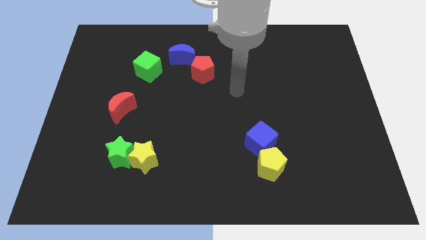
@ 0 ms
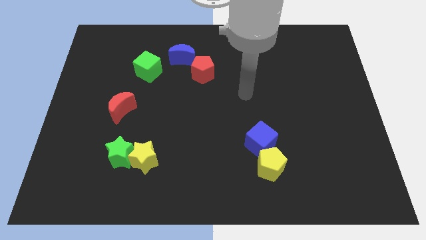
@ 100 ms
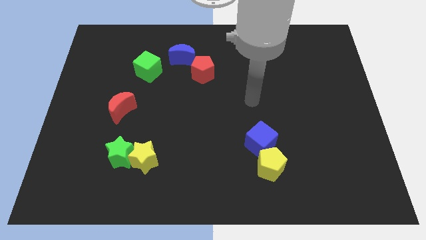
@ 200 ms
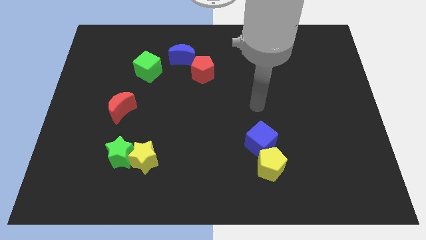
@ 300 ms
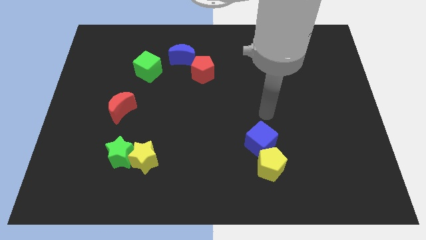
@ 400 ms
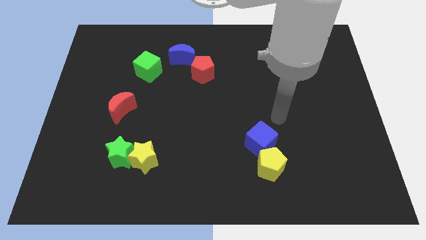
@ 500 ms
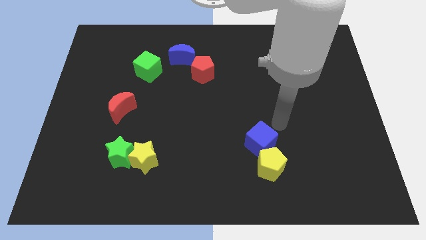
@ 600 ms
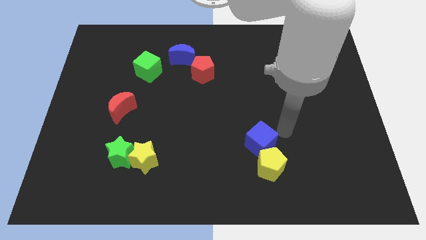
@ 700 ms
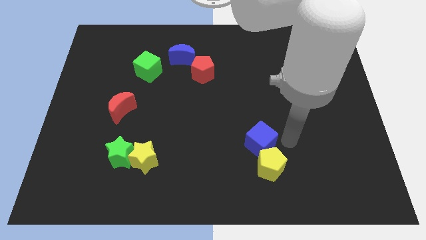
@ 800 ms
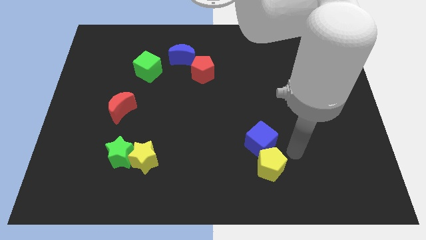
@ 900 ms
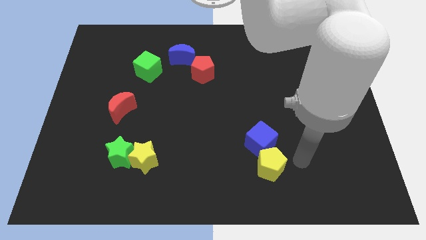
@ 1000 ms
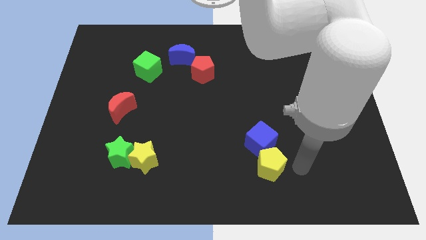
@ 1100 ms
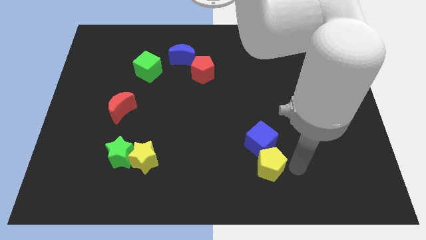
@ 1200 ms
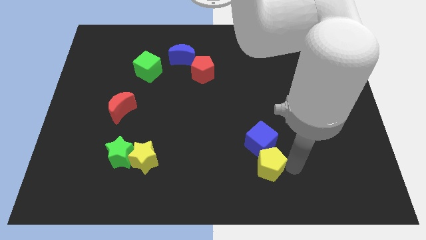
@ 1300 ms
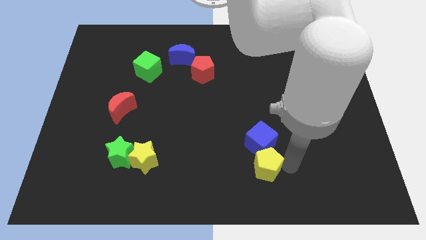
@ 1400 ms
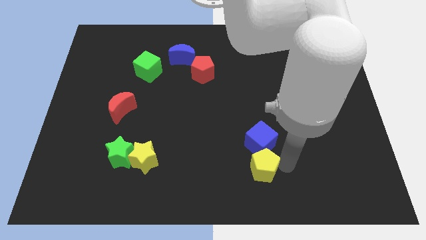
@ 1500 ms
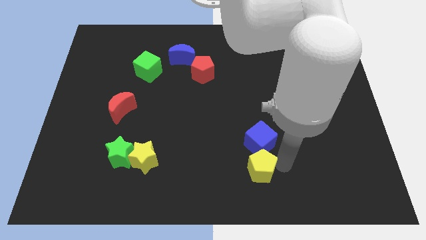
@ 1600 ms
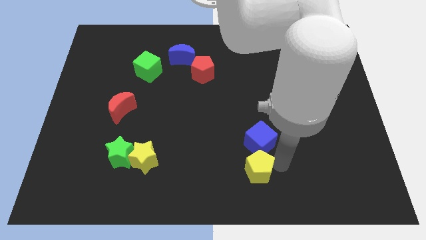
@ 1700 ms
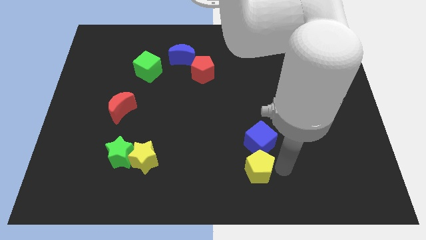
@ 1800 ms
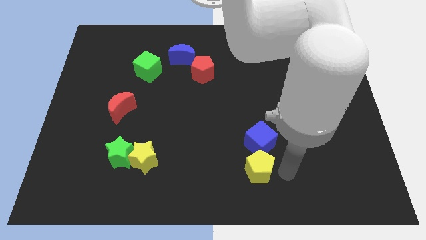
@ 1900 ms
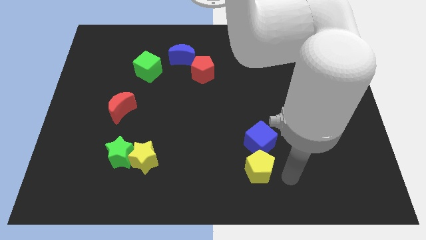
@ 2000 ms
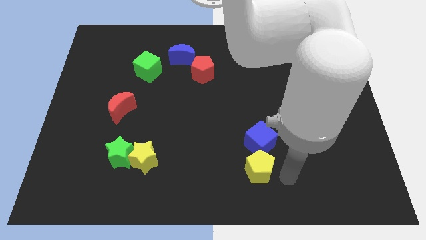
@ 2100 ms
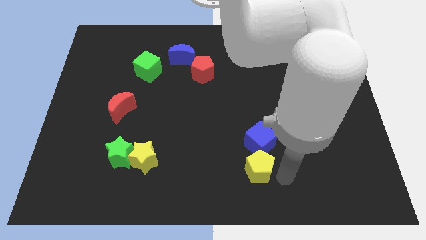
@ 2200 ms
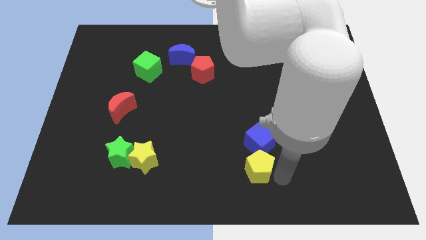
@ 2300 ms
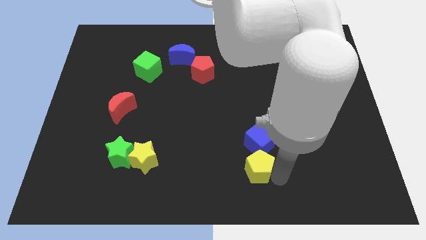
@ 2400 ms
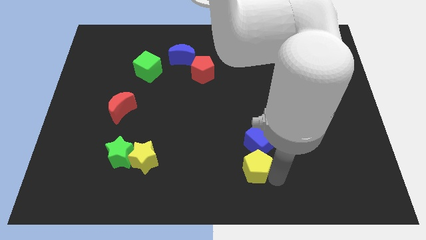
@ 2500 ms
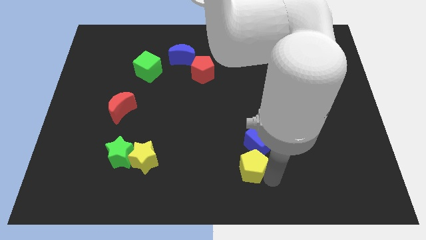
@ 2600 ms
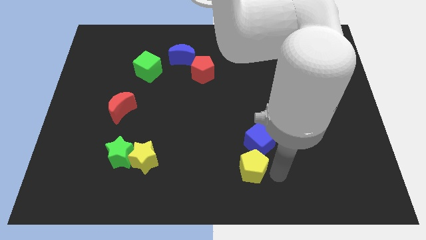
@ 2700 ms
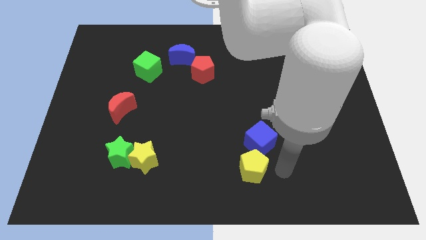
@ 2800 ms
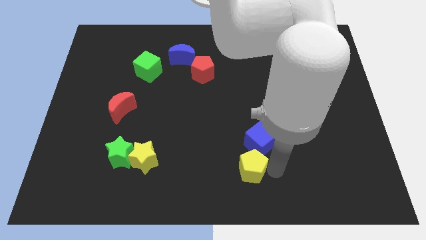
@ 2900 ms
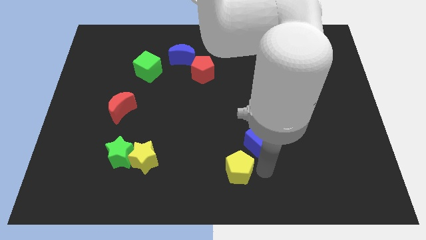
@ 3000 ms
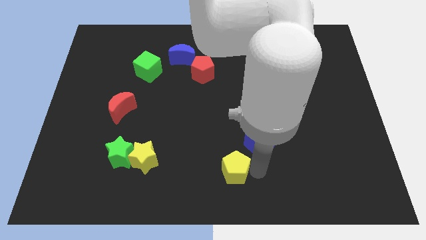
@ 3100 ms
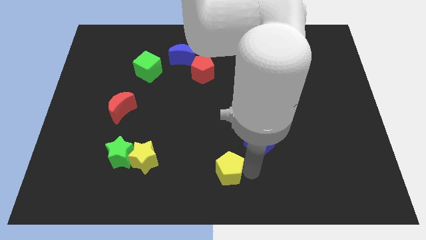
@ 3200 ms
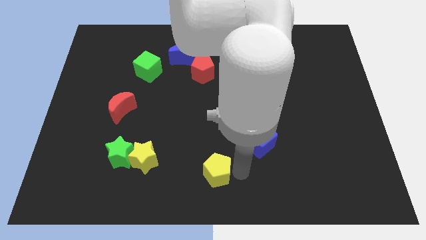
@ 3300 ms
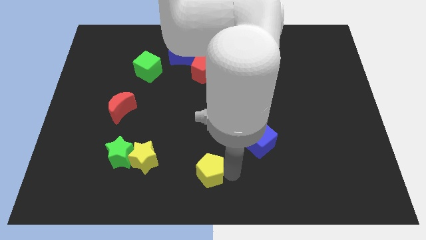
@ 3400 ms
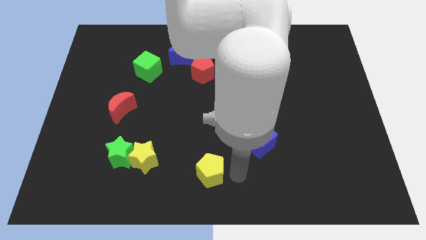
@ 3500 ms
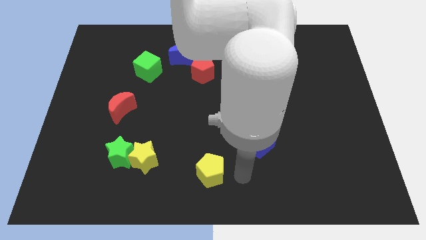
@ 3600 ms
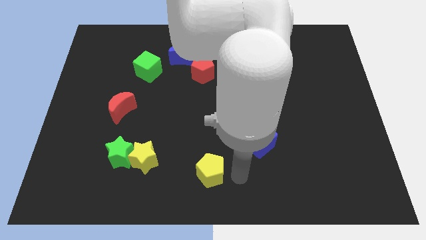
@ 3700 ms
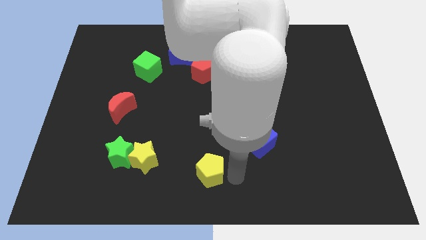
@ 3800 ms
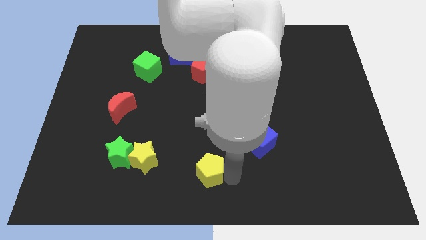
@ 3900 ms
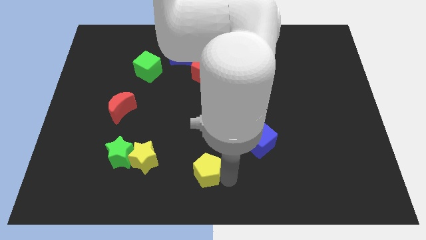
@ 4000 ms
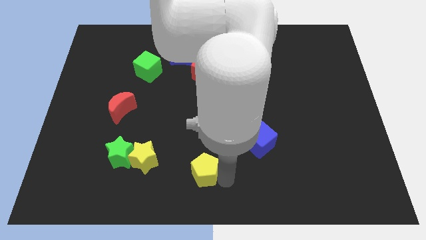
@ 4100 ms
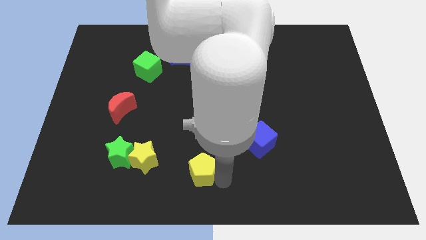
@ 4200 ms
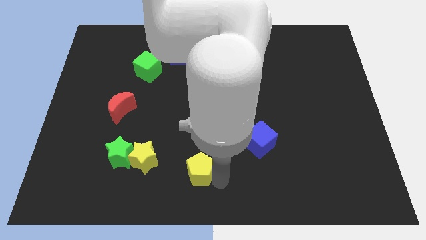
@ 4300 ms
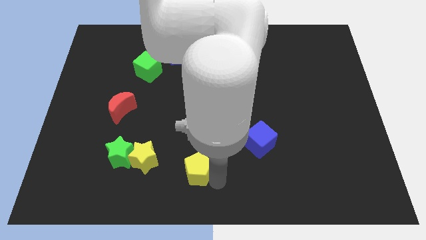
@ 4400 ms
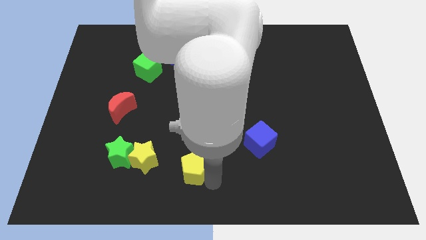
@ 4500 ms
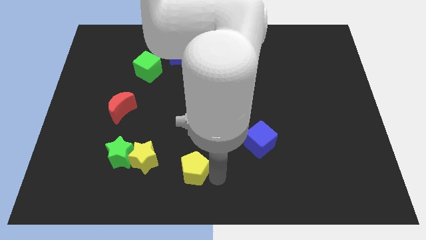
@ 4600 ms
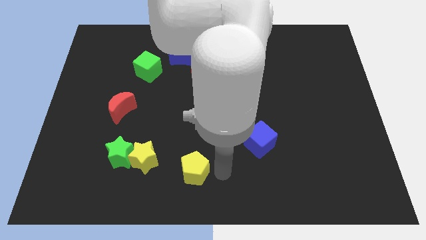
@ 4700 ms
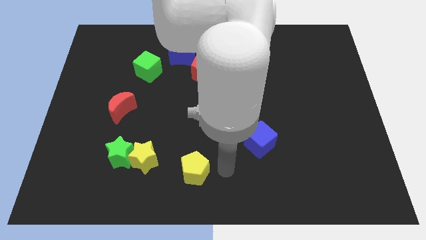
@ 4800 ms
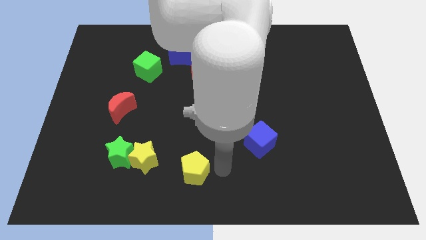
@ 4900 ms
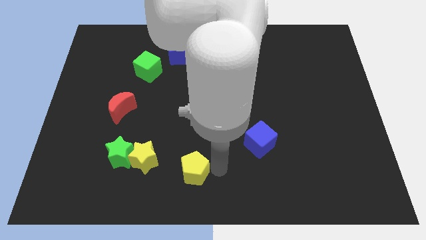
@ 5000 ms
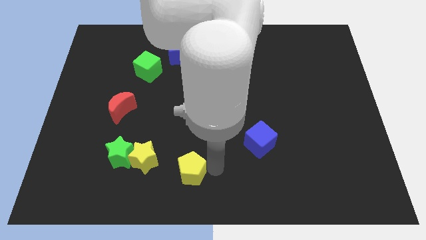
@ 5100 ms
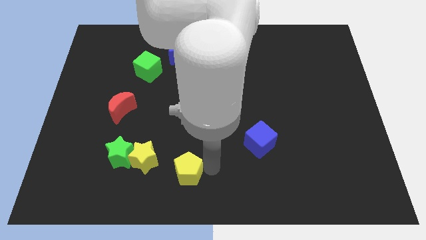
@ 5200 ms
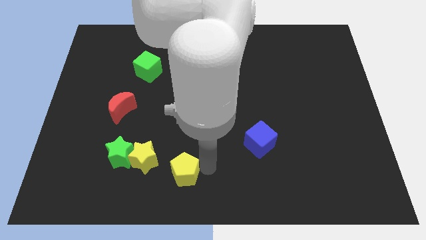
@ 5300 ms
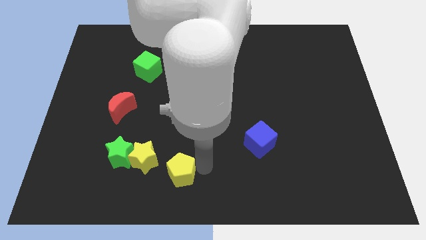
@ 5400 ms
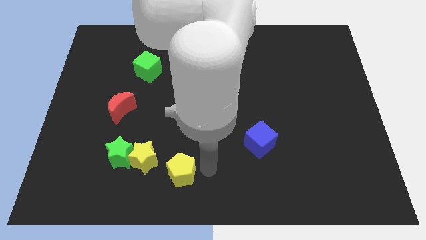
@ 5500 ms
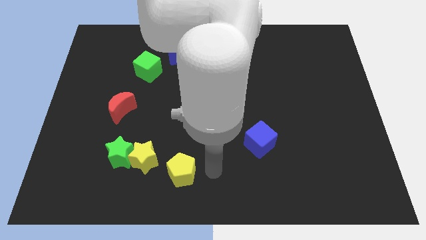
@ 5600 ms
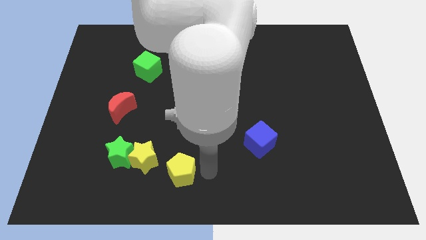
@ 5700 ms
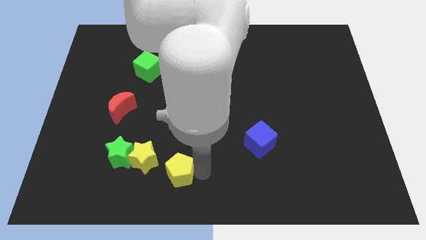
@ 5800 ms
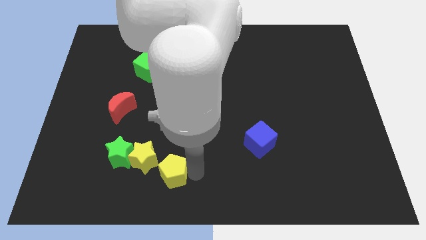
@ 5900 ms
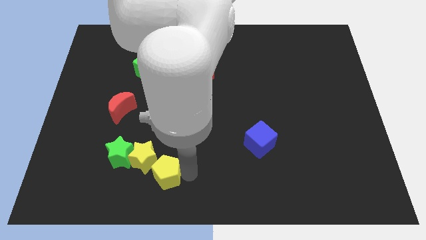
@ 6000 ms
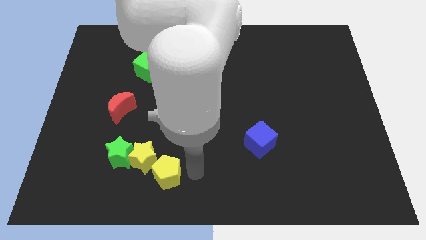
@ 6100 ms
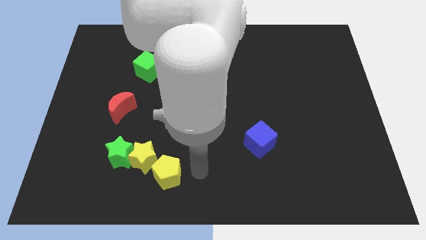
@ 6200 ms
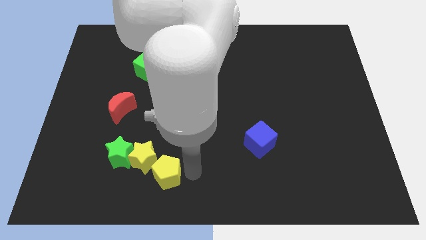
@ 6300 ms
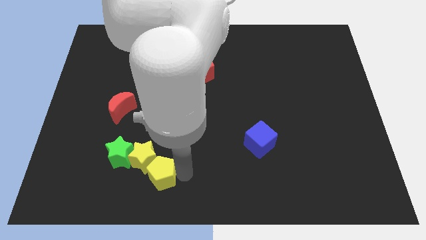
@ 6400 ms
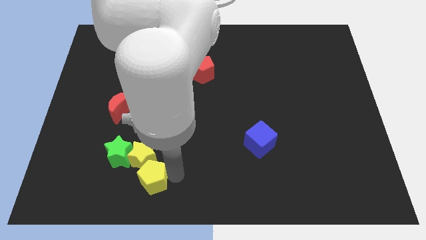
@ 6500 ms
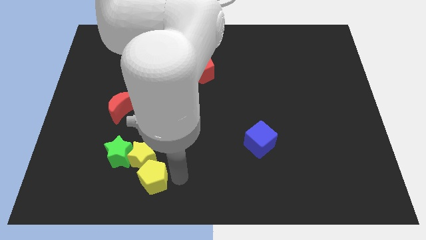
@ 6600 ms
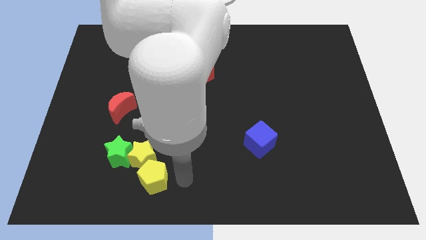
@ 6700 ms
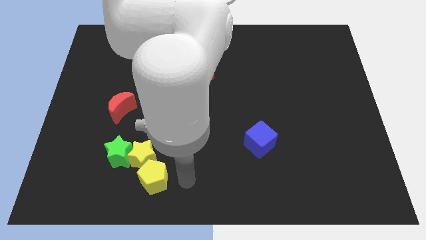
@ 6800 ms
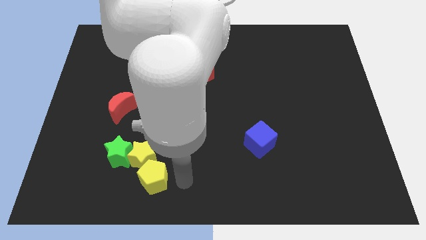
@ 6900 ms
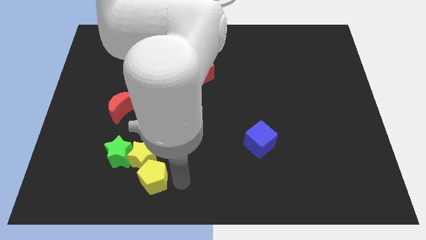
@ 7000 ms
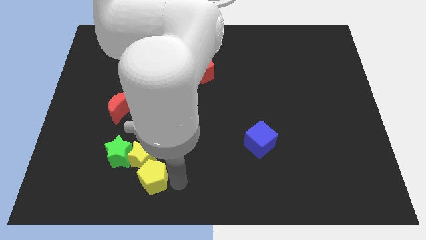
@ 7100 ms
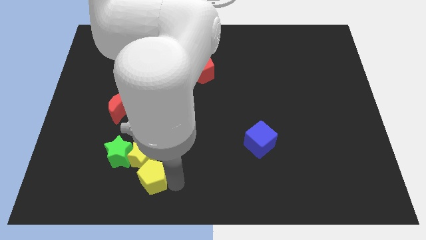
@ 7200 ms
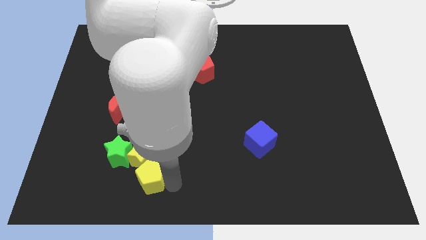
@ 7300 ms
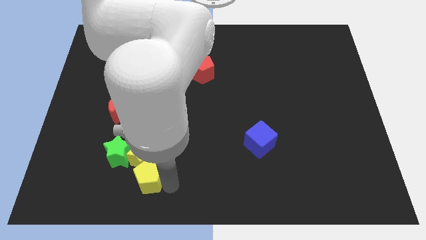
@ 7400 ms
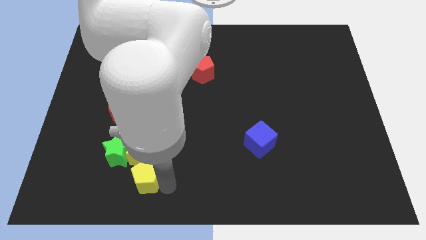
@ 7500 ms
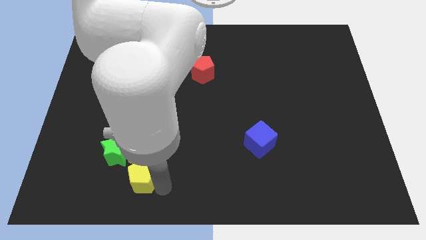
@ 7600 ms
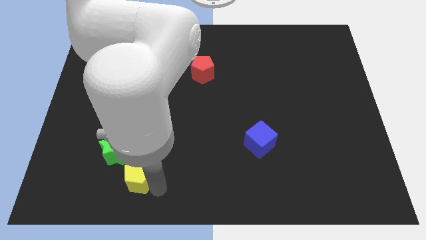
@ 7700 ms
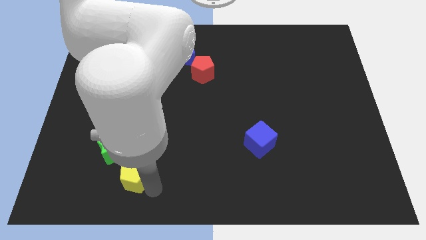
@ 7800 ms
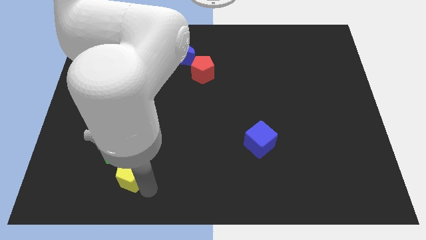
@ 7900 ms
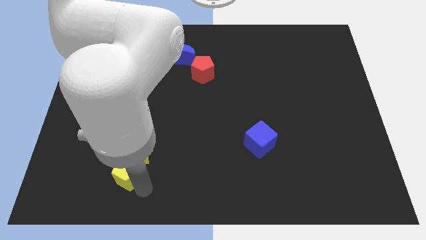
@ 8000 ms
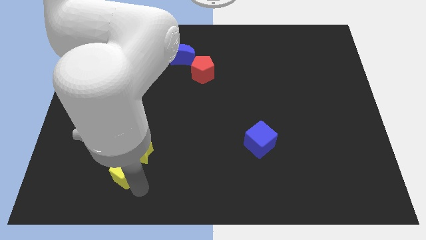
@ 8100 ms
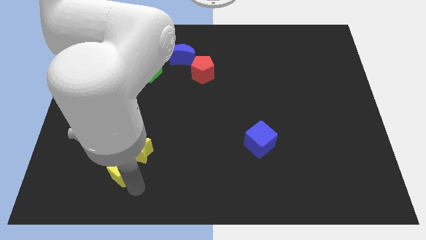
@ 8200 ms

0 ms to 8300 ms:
put the yellow pentagon next to the green star
